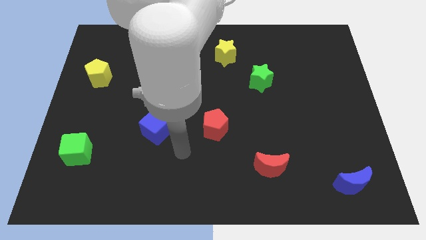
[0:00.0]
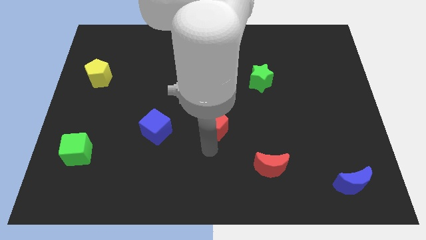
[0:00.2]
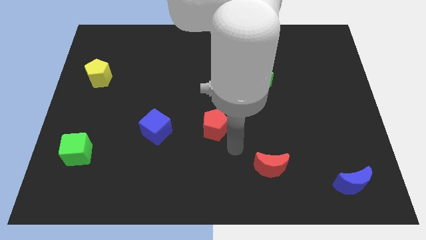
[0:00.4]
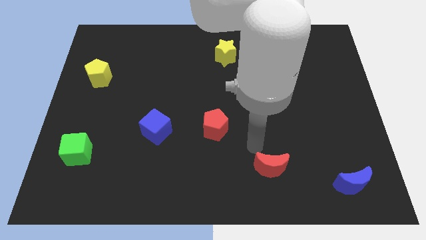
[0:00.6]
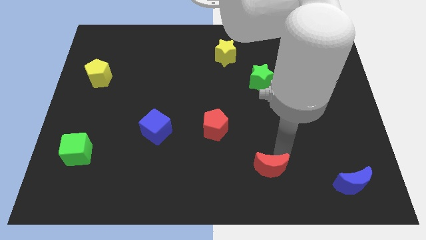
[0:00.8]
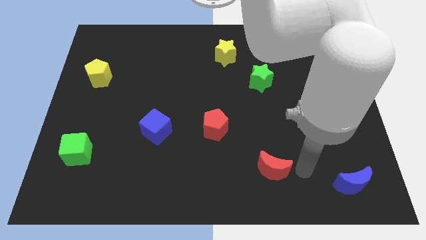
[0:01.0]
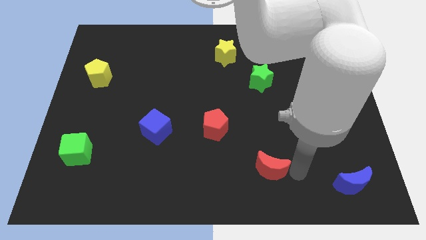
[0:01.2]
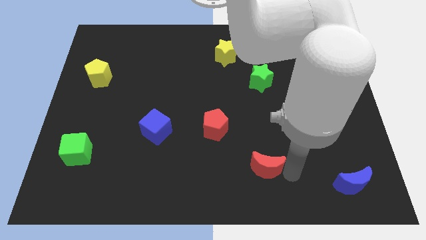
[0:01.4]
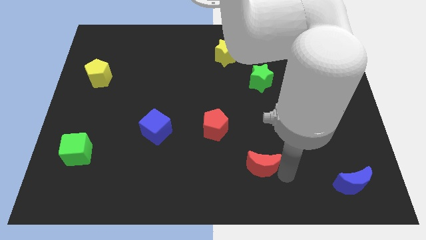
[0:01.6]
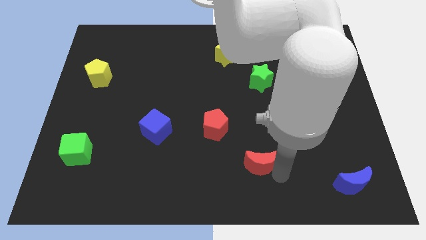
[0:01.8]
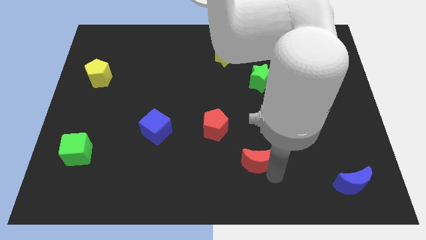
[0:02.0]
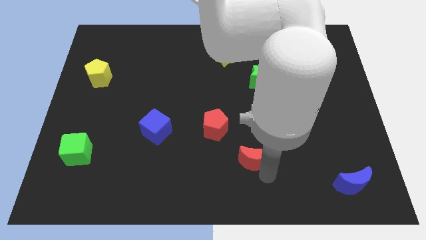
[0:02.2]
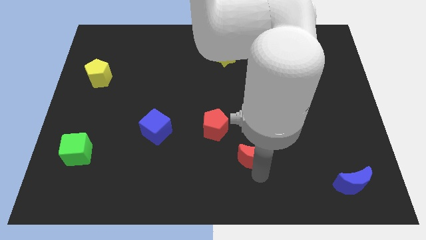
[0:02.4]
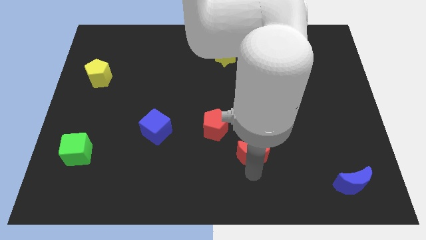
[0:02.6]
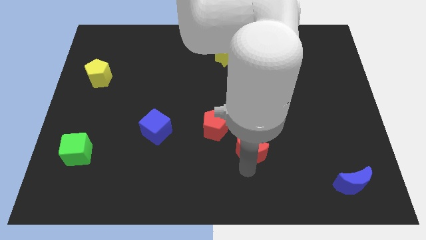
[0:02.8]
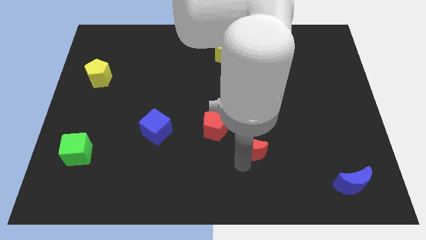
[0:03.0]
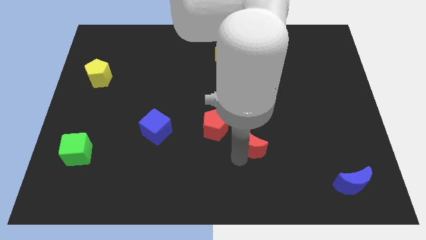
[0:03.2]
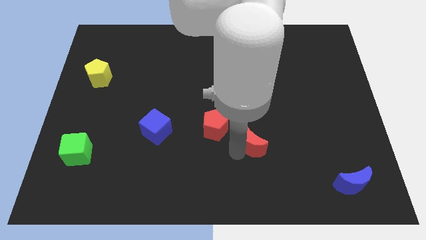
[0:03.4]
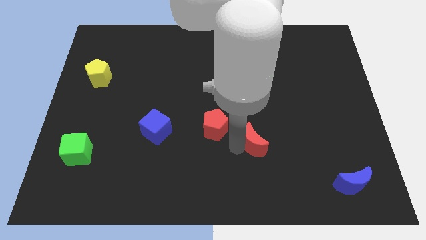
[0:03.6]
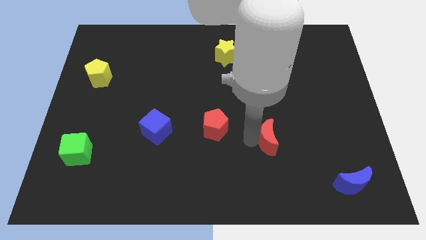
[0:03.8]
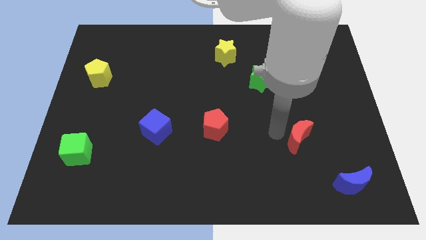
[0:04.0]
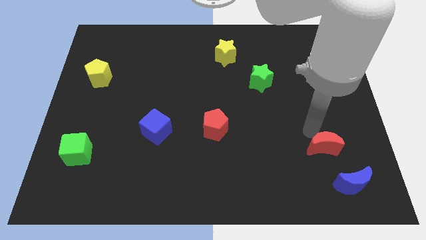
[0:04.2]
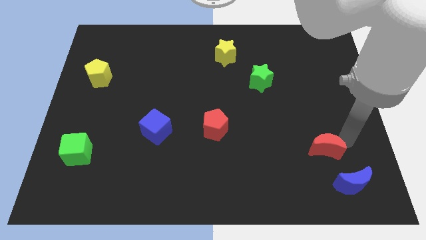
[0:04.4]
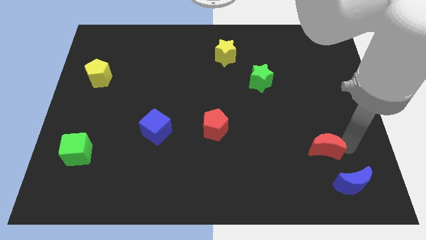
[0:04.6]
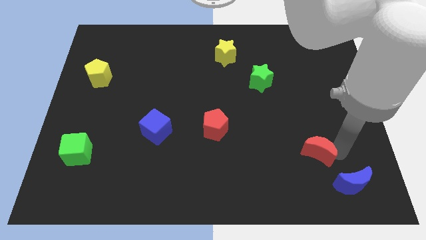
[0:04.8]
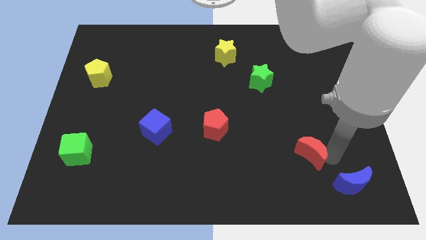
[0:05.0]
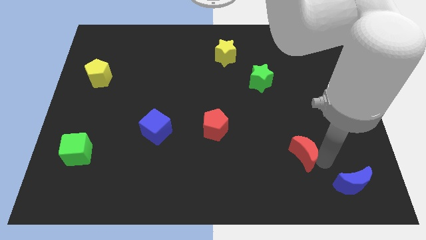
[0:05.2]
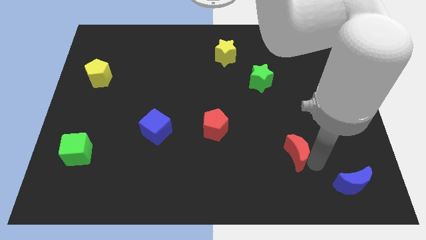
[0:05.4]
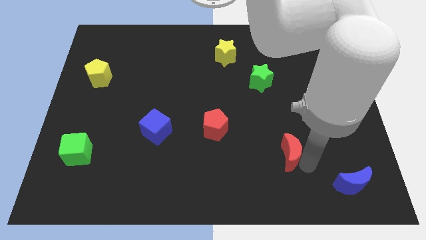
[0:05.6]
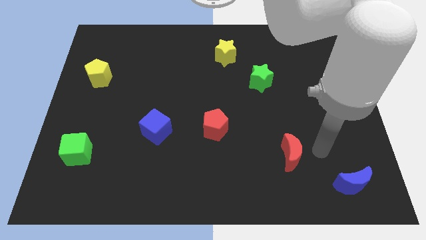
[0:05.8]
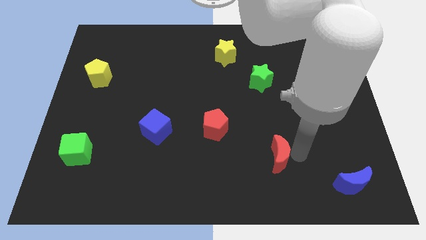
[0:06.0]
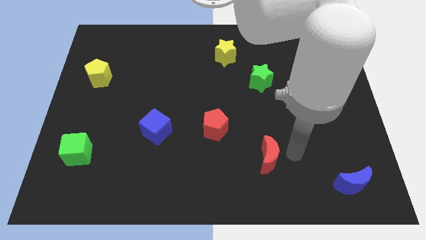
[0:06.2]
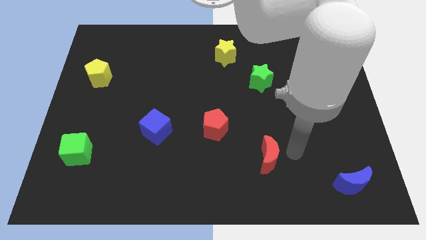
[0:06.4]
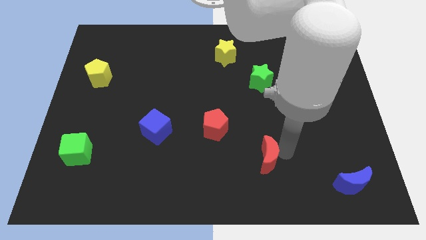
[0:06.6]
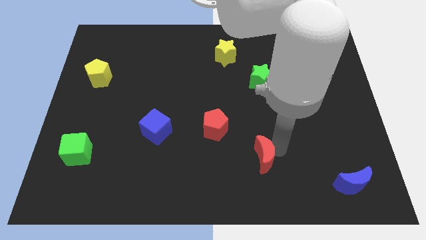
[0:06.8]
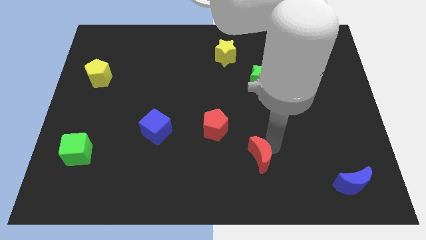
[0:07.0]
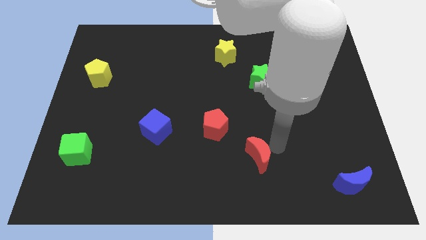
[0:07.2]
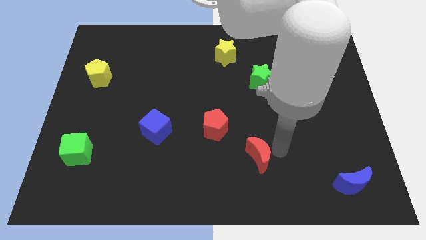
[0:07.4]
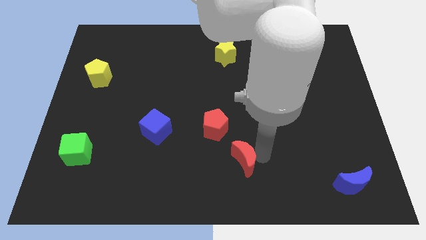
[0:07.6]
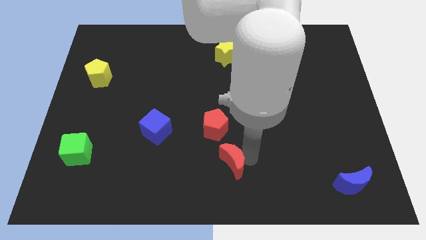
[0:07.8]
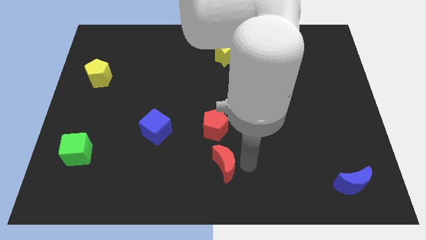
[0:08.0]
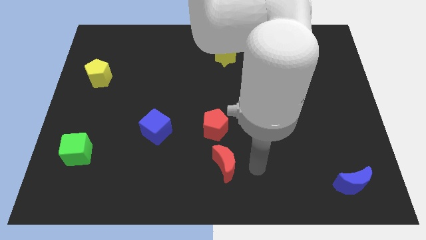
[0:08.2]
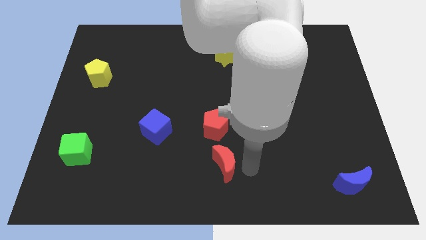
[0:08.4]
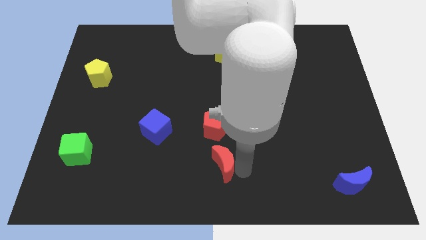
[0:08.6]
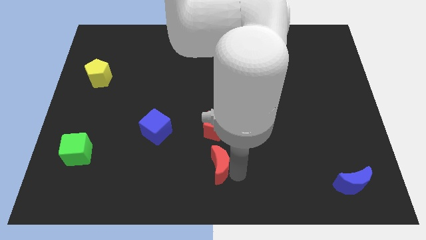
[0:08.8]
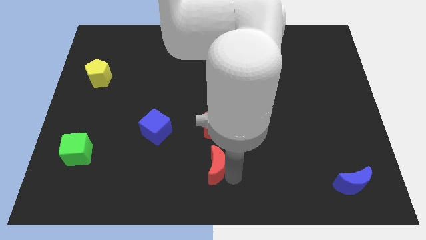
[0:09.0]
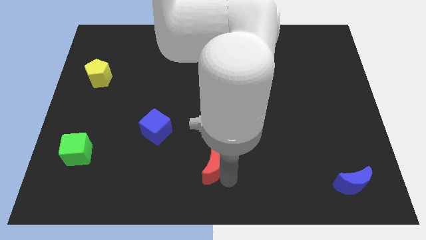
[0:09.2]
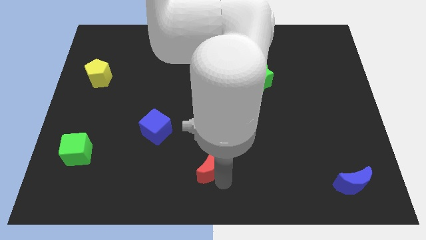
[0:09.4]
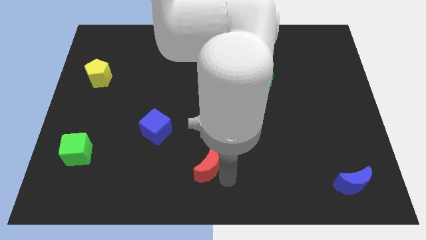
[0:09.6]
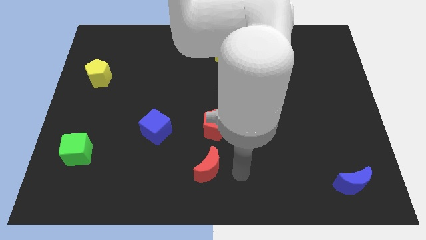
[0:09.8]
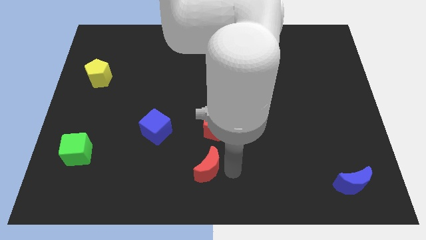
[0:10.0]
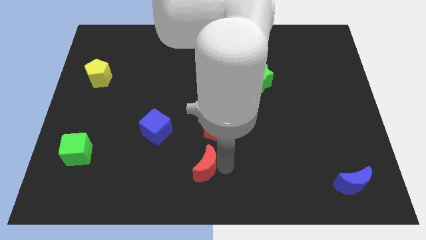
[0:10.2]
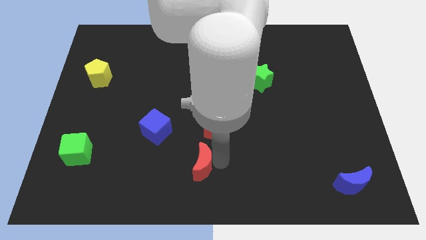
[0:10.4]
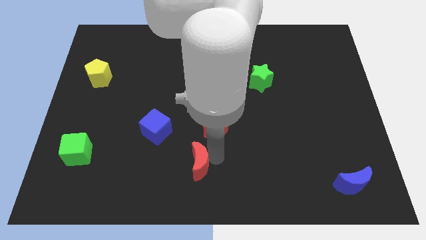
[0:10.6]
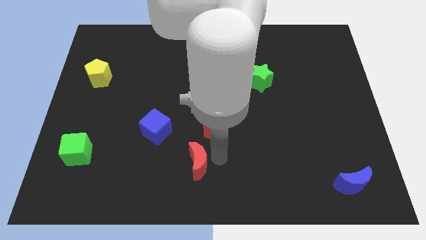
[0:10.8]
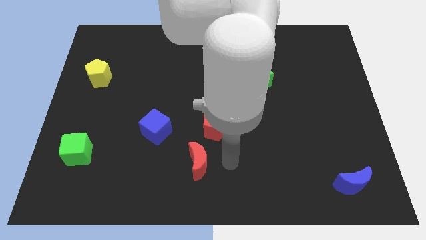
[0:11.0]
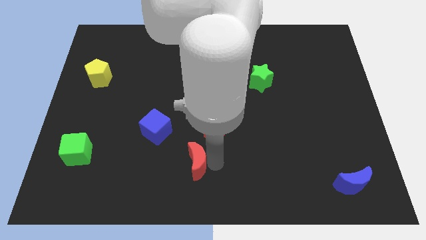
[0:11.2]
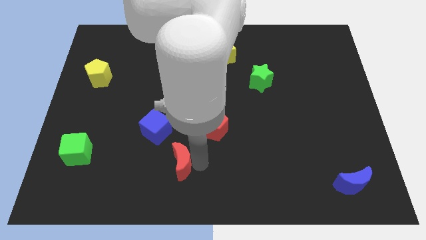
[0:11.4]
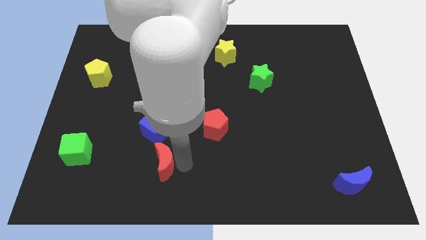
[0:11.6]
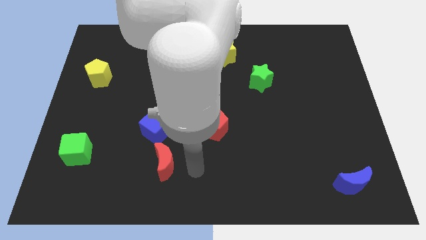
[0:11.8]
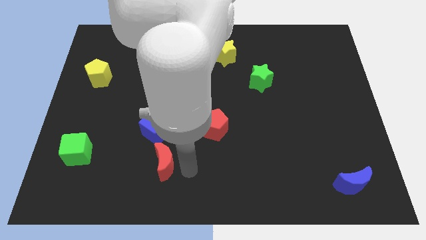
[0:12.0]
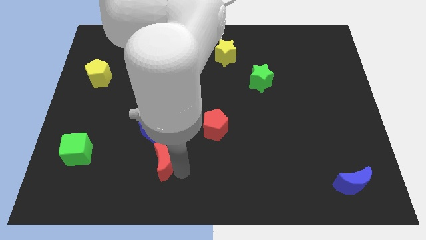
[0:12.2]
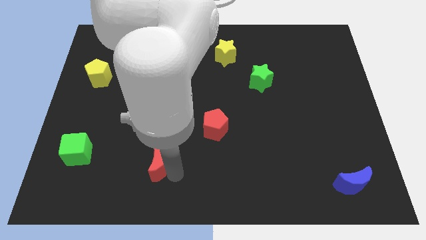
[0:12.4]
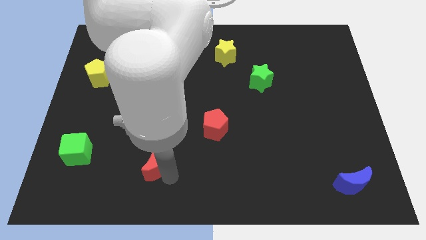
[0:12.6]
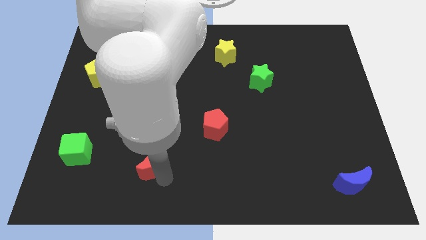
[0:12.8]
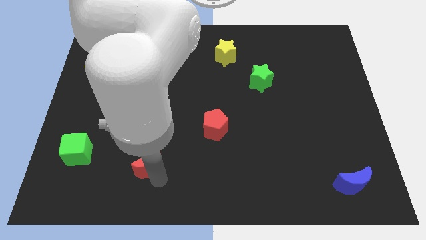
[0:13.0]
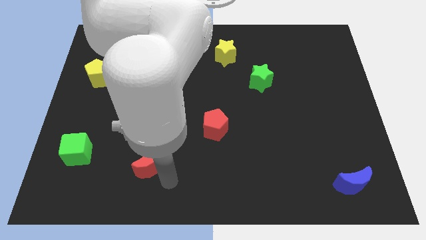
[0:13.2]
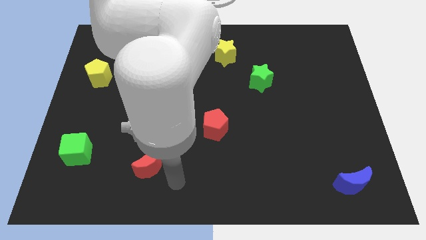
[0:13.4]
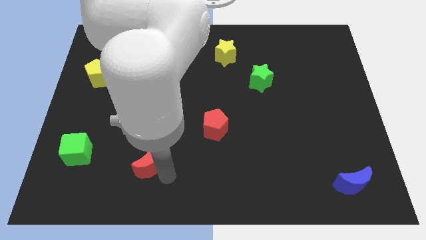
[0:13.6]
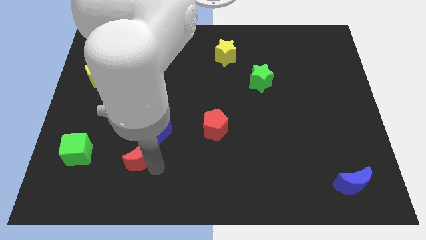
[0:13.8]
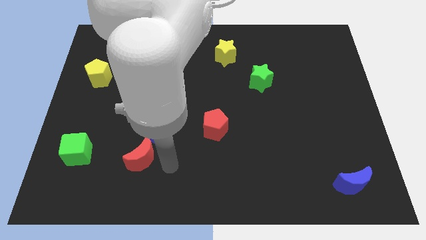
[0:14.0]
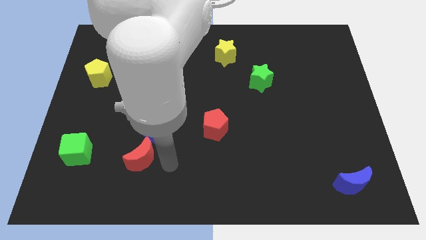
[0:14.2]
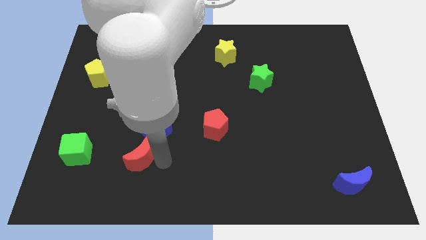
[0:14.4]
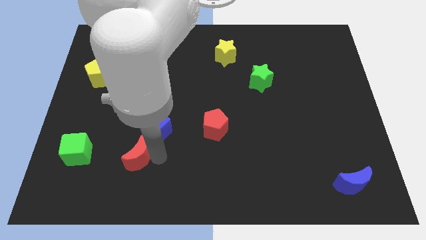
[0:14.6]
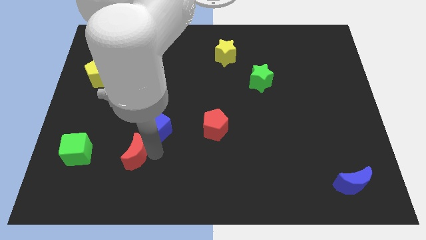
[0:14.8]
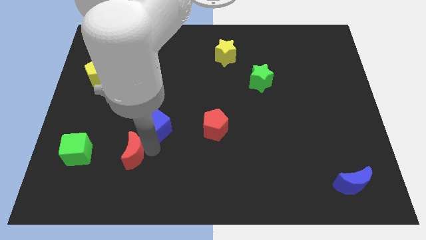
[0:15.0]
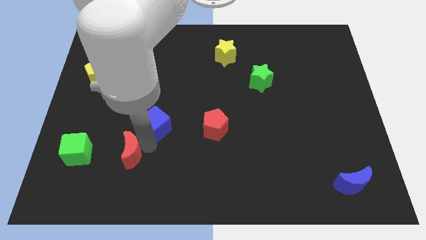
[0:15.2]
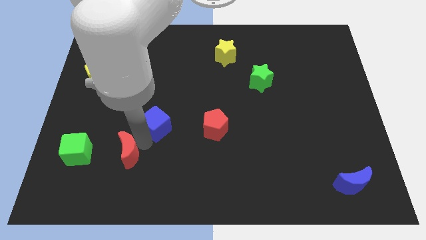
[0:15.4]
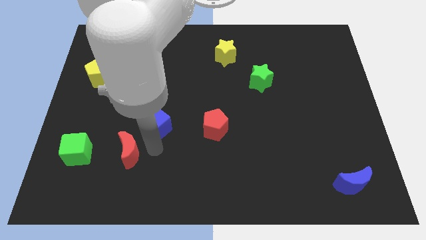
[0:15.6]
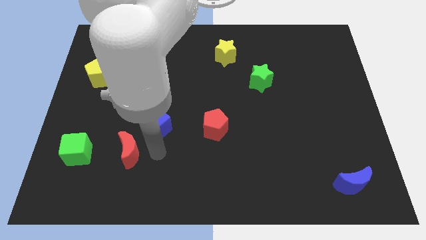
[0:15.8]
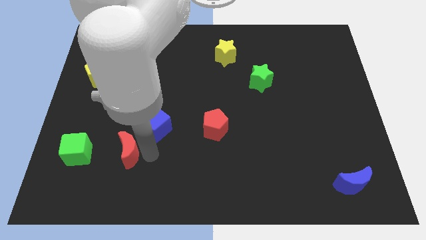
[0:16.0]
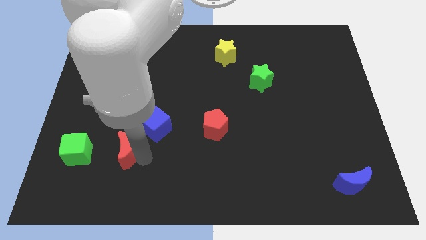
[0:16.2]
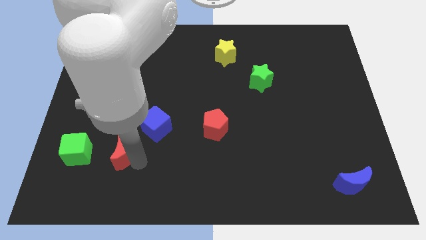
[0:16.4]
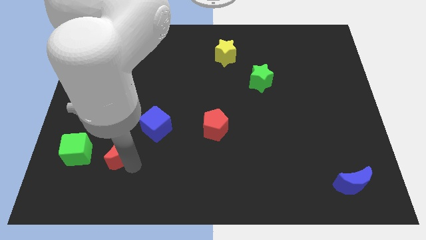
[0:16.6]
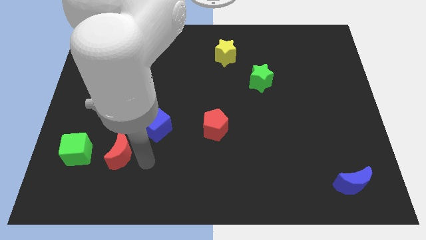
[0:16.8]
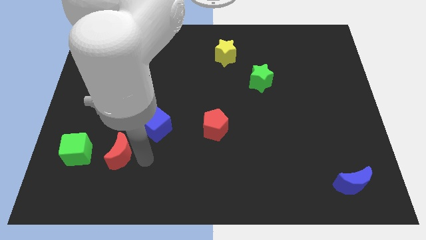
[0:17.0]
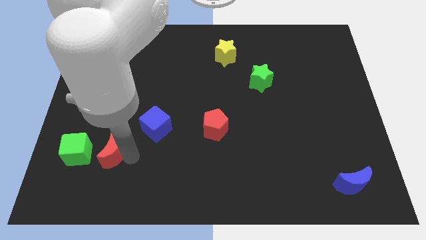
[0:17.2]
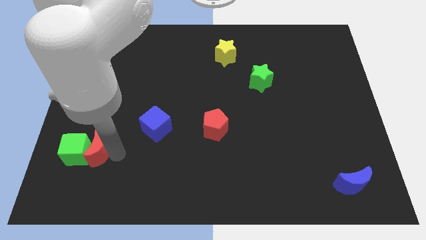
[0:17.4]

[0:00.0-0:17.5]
move the red moon close to the green cube
